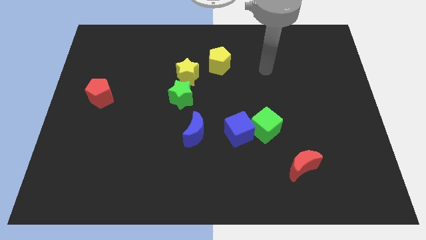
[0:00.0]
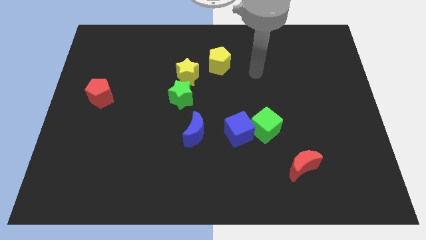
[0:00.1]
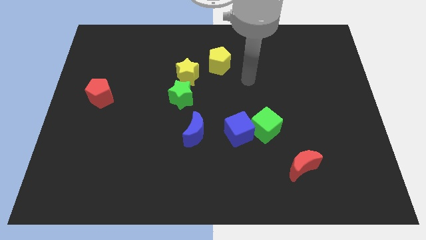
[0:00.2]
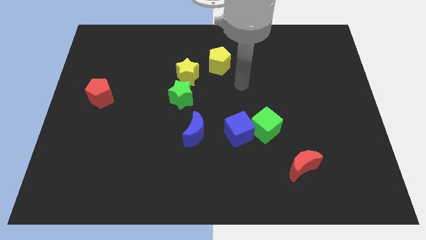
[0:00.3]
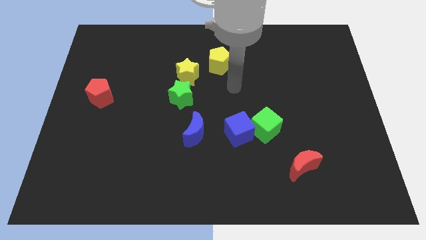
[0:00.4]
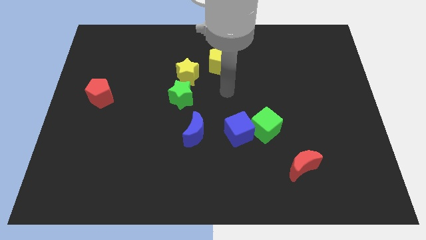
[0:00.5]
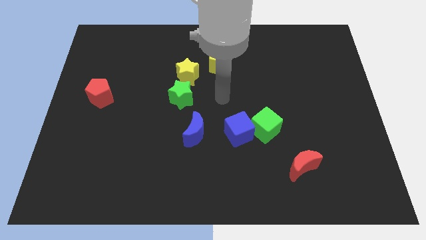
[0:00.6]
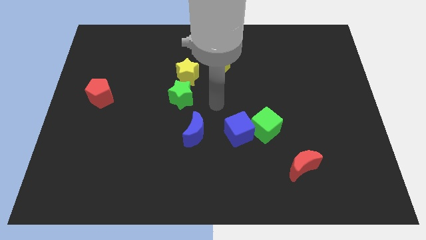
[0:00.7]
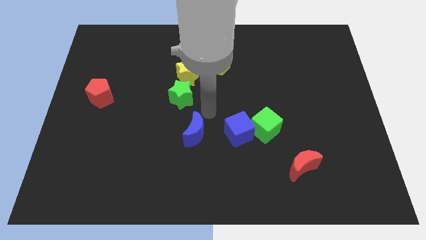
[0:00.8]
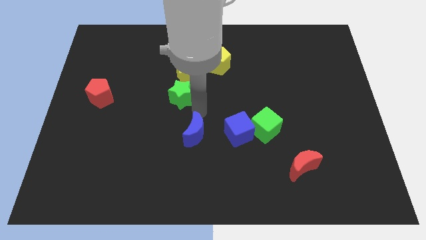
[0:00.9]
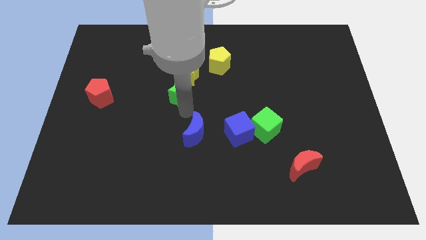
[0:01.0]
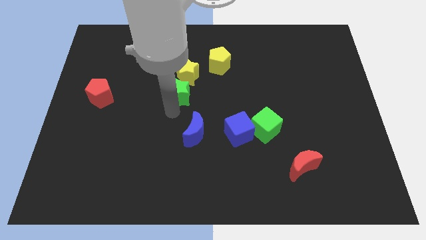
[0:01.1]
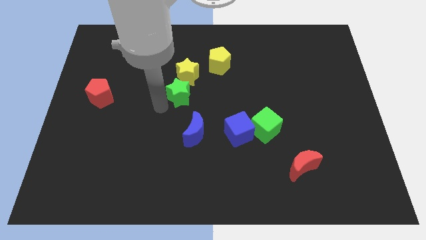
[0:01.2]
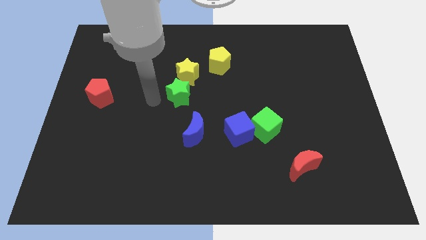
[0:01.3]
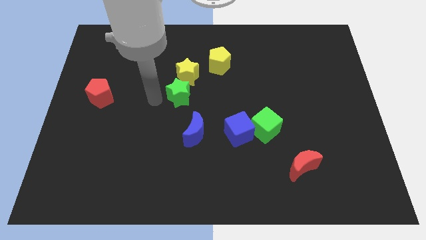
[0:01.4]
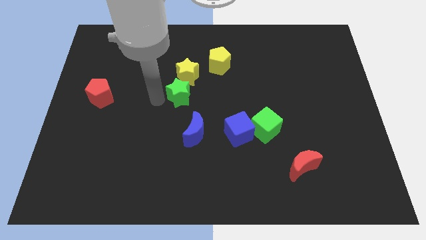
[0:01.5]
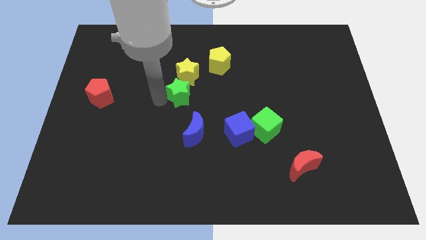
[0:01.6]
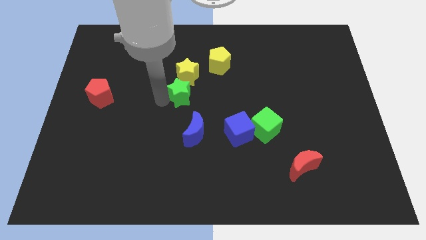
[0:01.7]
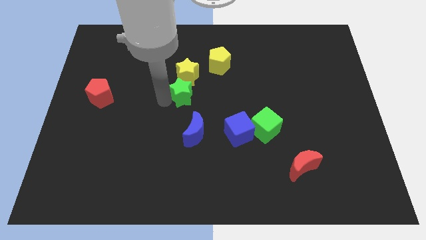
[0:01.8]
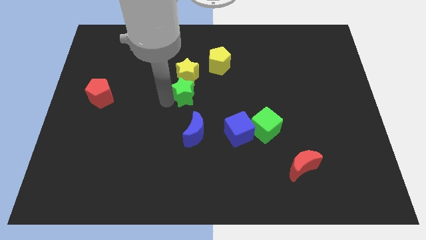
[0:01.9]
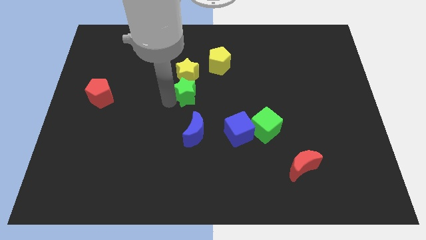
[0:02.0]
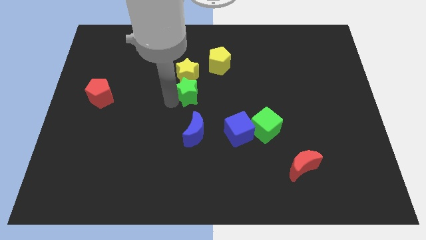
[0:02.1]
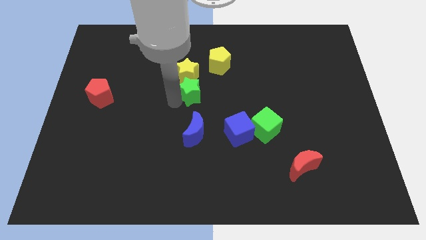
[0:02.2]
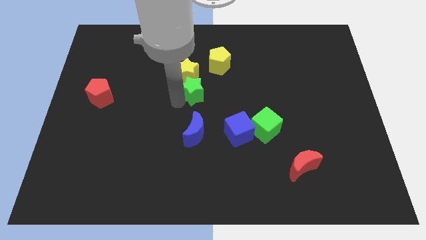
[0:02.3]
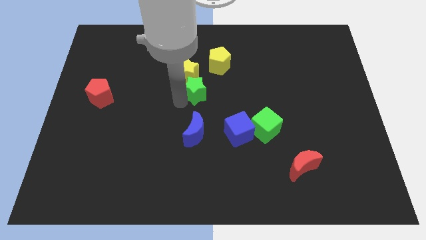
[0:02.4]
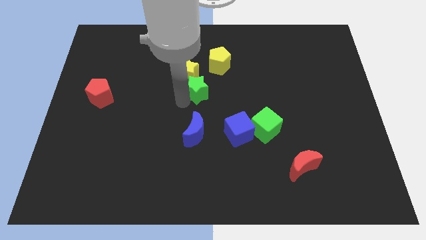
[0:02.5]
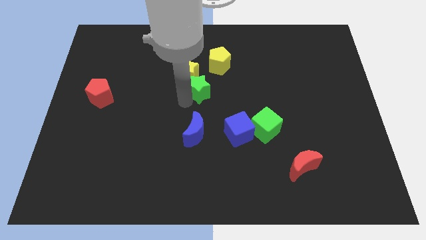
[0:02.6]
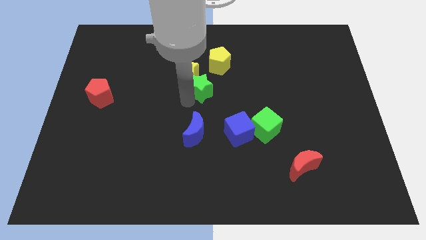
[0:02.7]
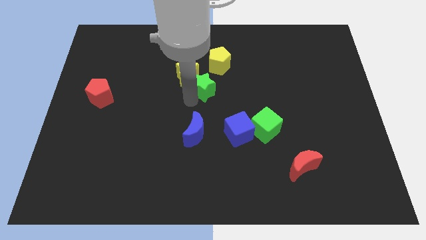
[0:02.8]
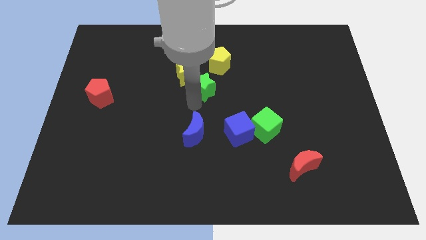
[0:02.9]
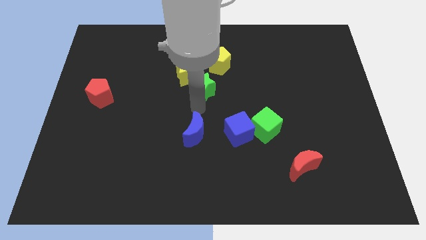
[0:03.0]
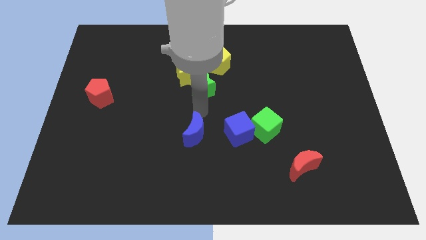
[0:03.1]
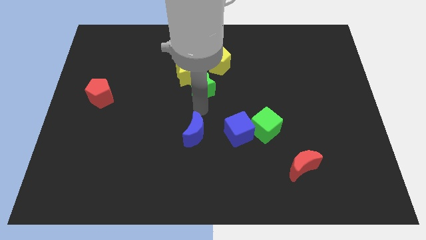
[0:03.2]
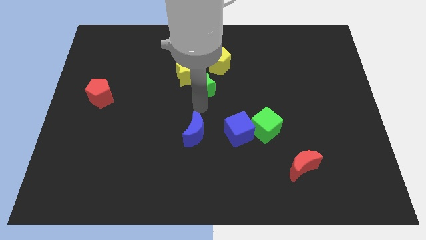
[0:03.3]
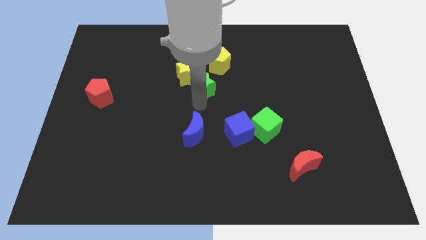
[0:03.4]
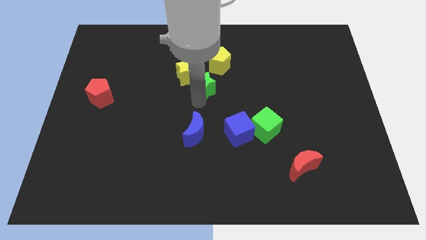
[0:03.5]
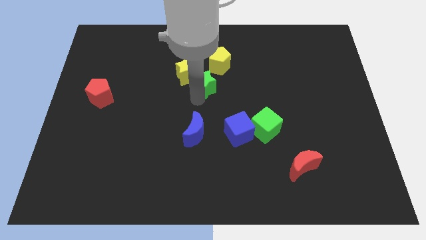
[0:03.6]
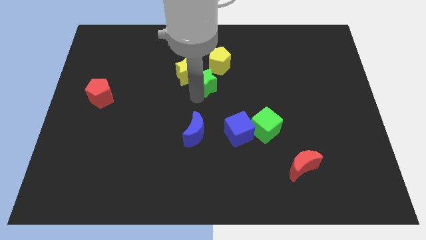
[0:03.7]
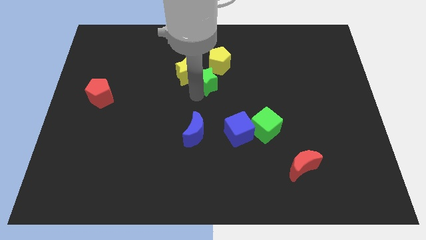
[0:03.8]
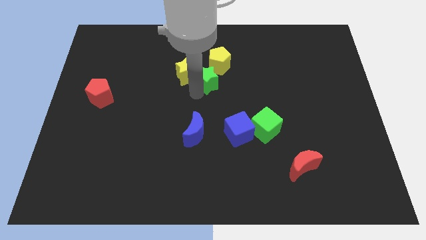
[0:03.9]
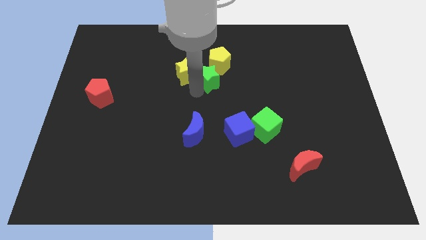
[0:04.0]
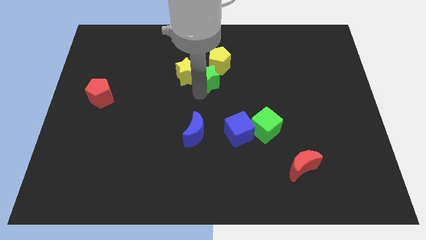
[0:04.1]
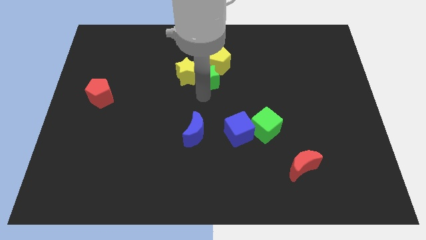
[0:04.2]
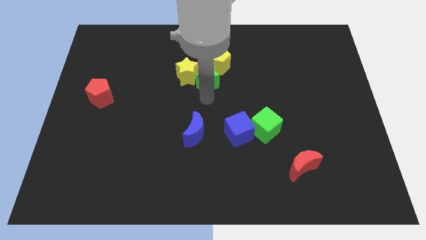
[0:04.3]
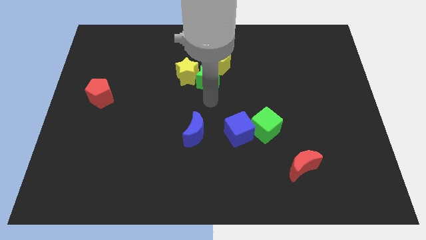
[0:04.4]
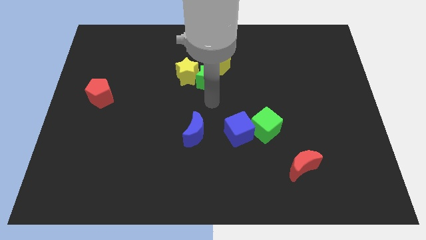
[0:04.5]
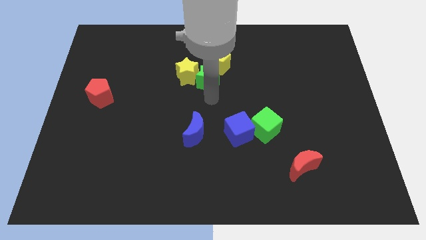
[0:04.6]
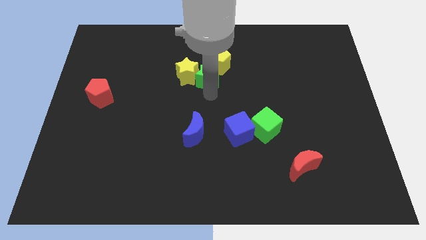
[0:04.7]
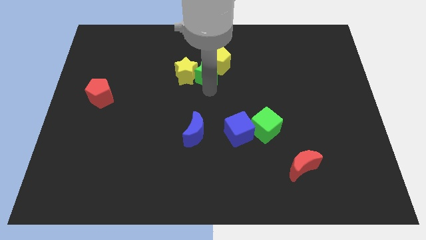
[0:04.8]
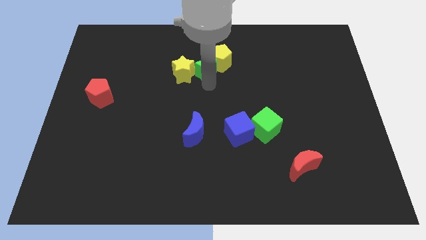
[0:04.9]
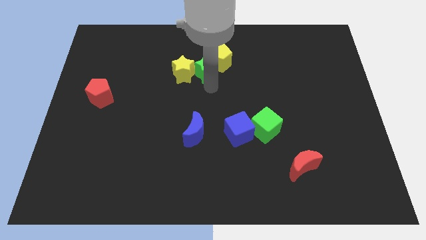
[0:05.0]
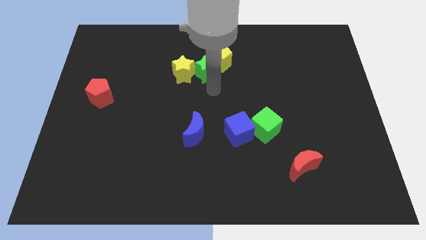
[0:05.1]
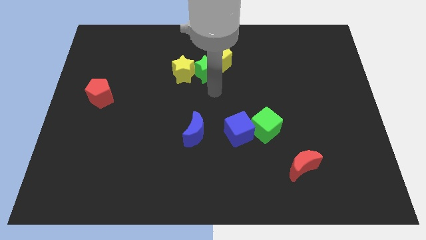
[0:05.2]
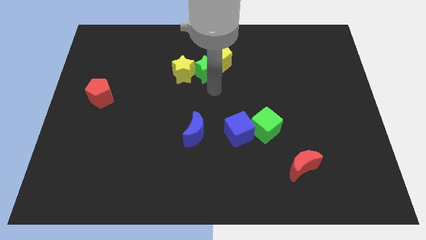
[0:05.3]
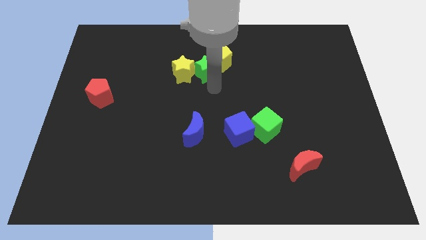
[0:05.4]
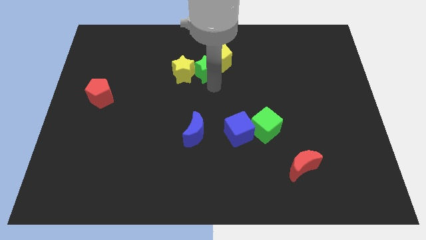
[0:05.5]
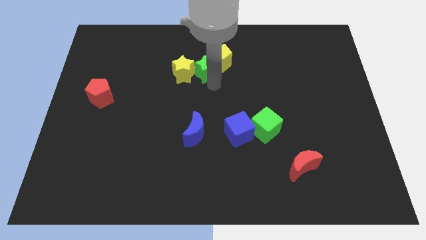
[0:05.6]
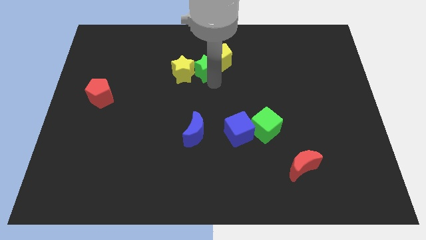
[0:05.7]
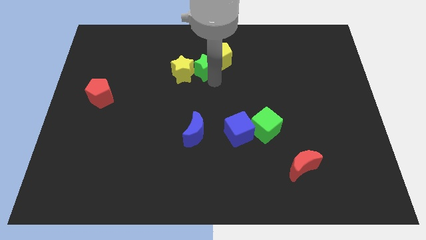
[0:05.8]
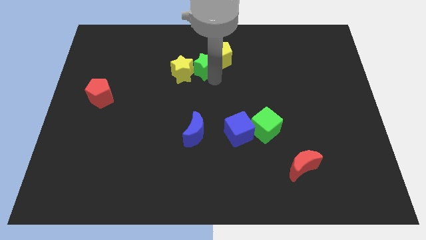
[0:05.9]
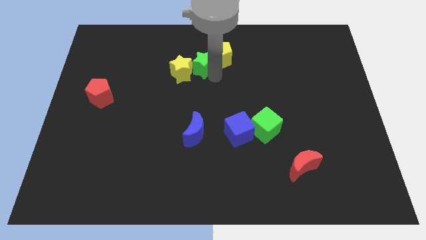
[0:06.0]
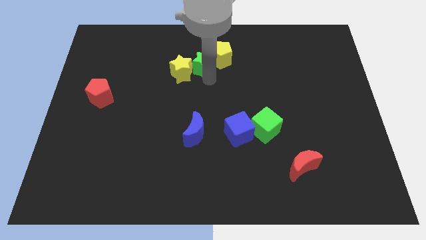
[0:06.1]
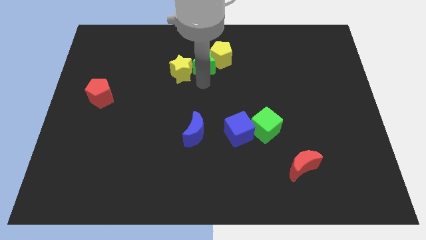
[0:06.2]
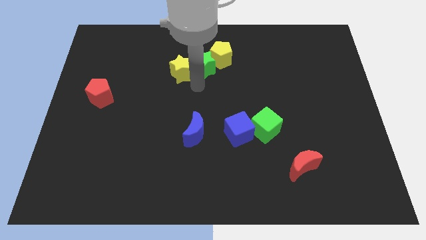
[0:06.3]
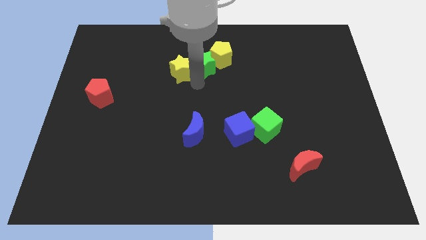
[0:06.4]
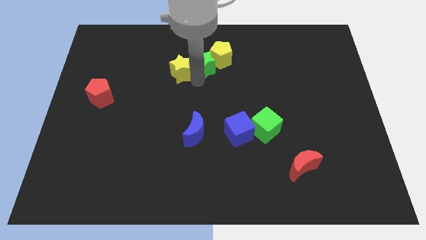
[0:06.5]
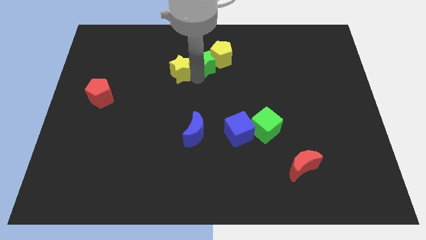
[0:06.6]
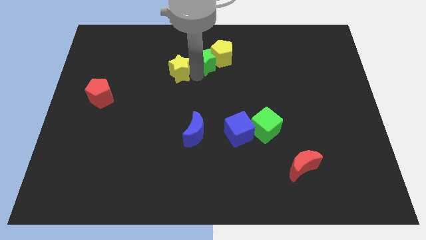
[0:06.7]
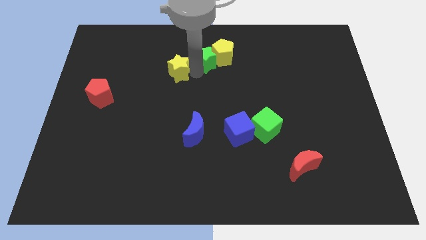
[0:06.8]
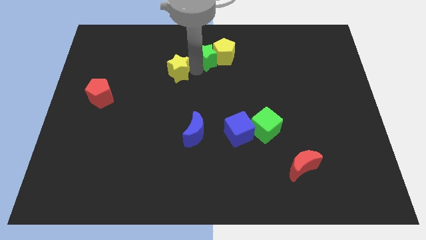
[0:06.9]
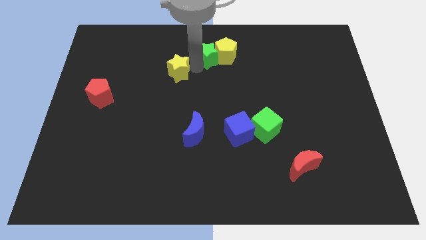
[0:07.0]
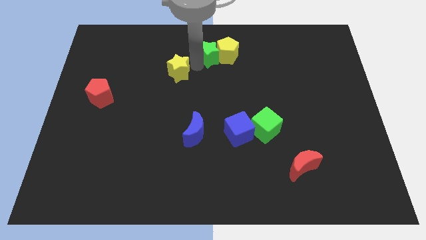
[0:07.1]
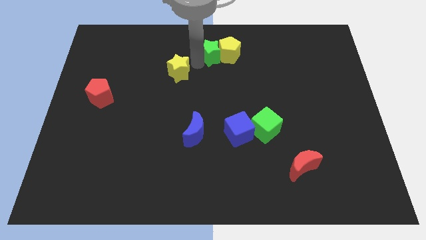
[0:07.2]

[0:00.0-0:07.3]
move the green star to the top side
